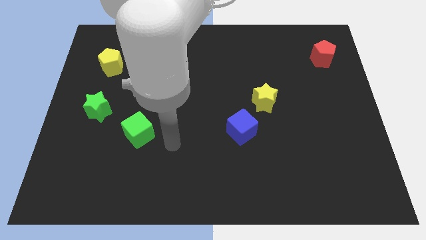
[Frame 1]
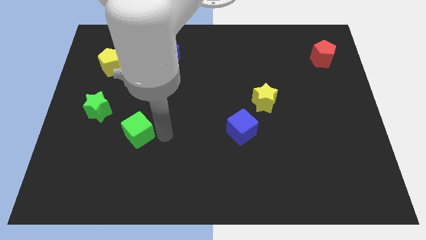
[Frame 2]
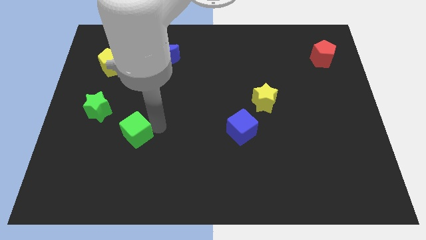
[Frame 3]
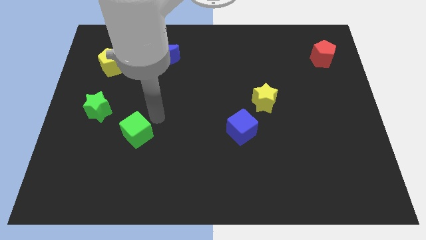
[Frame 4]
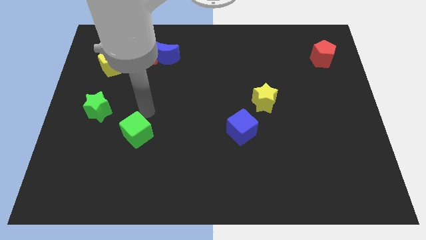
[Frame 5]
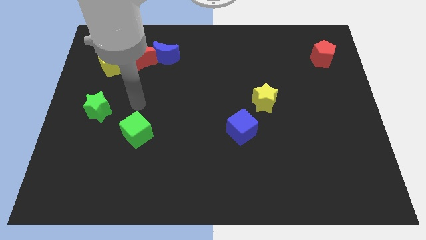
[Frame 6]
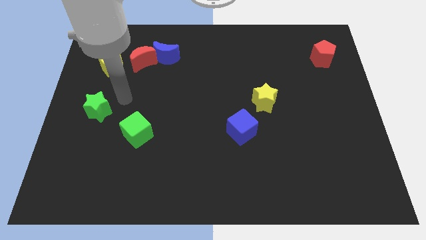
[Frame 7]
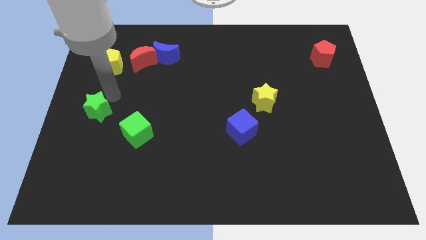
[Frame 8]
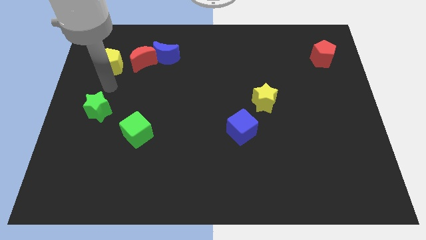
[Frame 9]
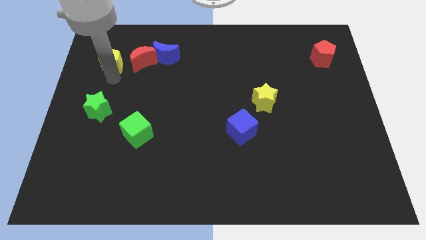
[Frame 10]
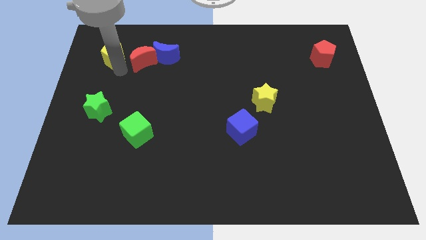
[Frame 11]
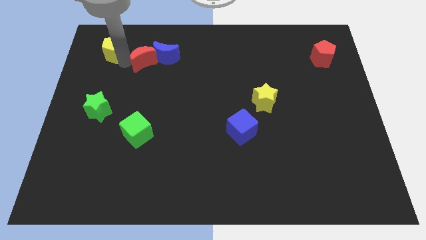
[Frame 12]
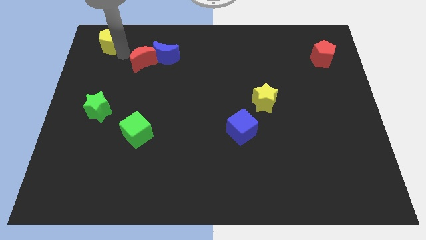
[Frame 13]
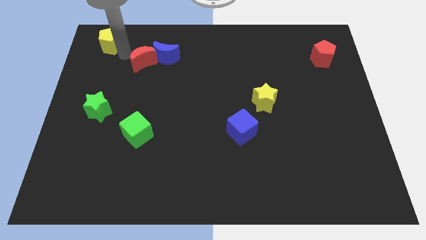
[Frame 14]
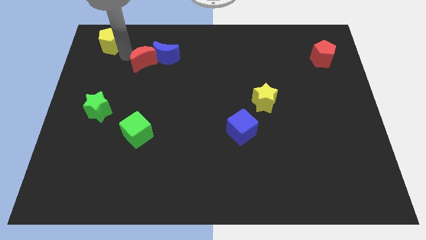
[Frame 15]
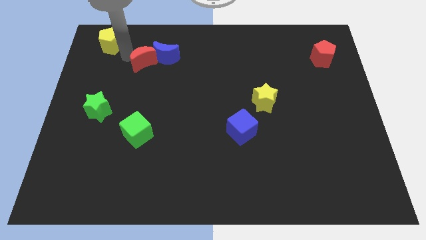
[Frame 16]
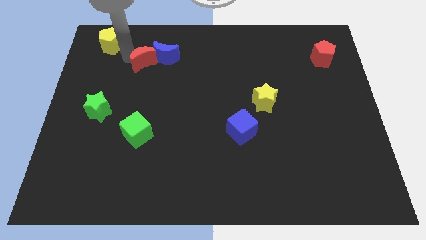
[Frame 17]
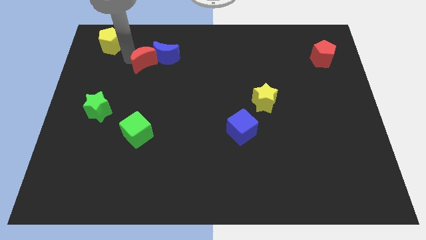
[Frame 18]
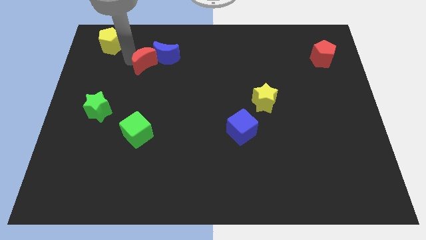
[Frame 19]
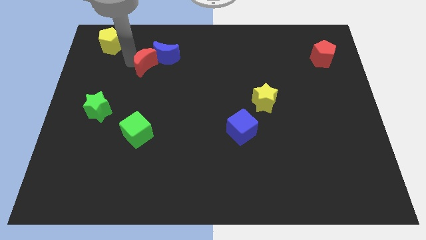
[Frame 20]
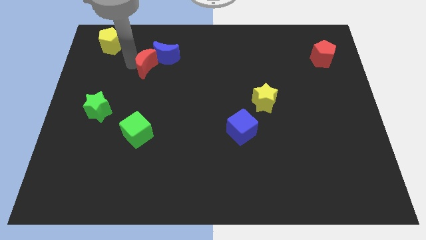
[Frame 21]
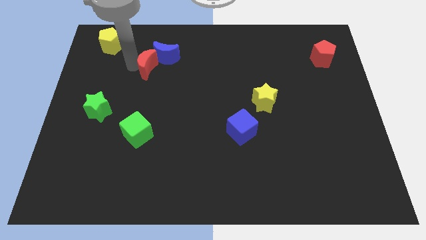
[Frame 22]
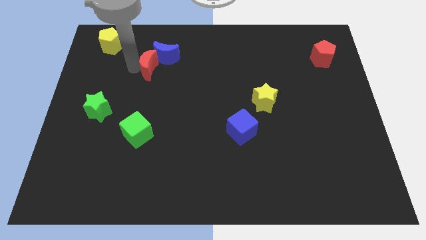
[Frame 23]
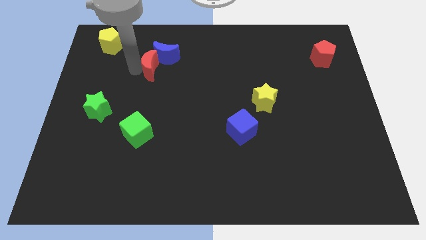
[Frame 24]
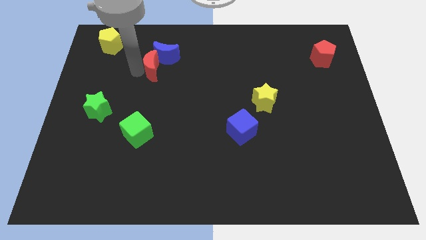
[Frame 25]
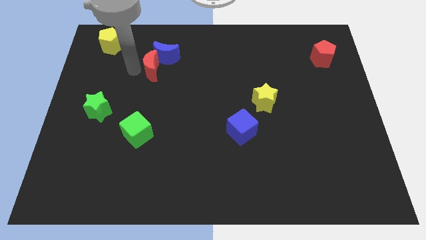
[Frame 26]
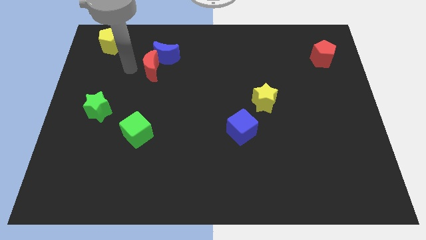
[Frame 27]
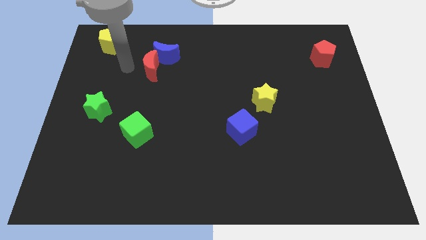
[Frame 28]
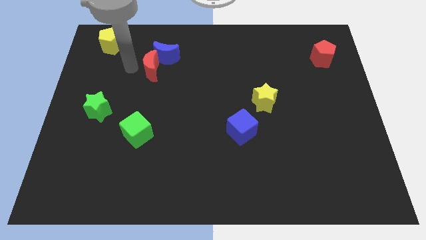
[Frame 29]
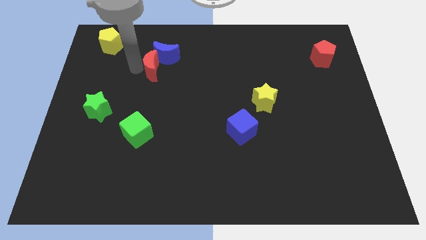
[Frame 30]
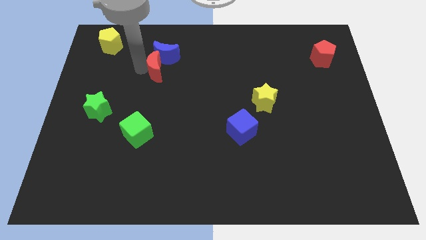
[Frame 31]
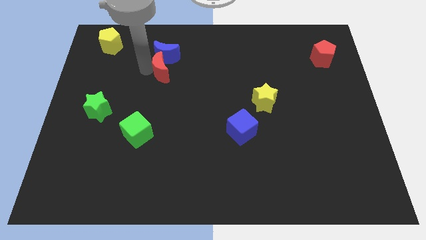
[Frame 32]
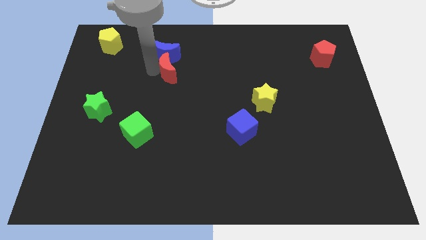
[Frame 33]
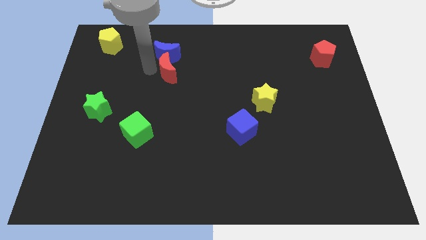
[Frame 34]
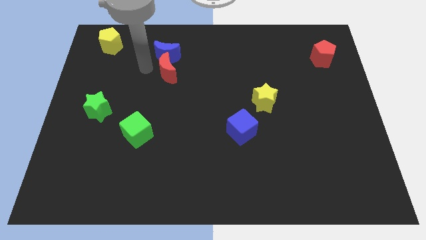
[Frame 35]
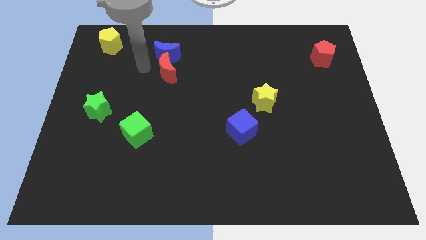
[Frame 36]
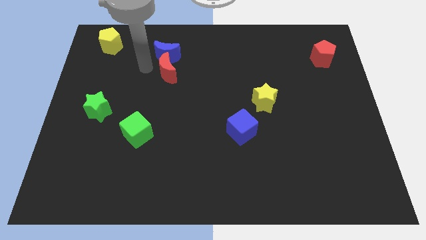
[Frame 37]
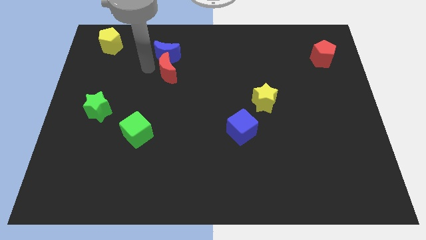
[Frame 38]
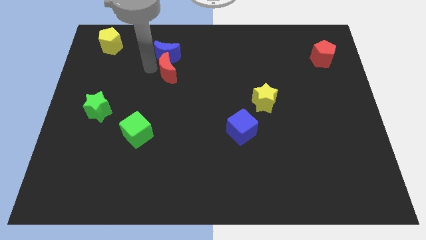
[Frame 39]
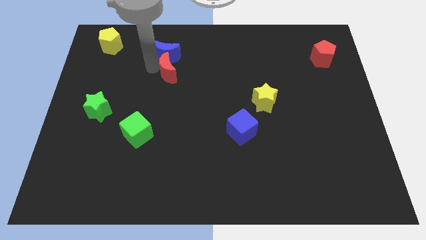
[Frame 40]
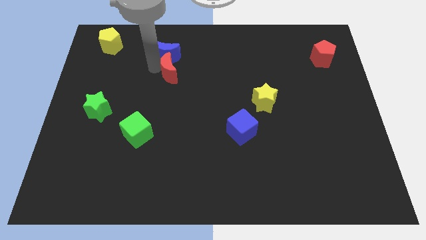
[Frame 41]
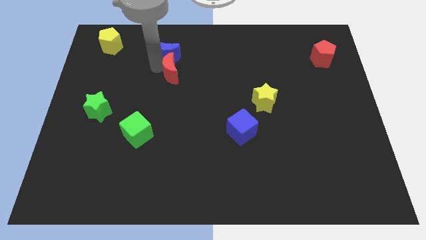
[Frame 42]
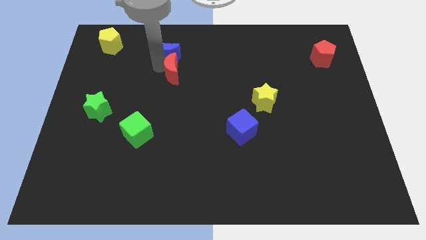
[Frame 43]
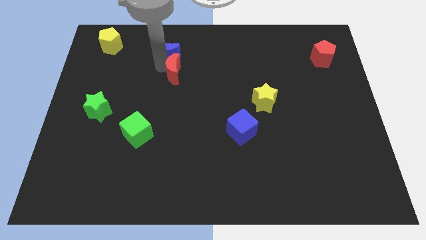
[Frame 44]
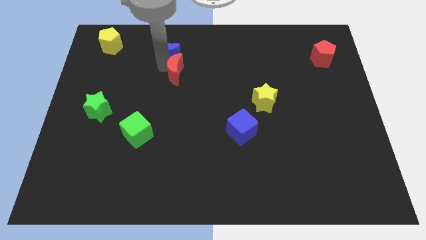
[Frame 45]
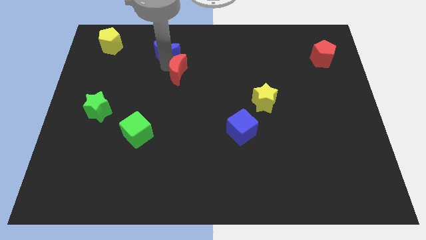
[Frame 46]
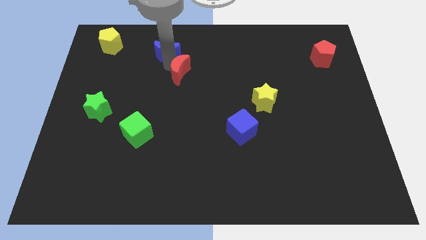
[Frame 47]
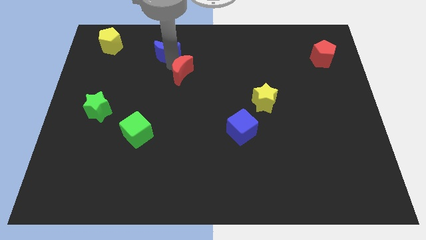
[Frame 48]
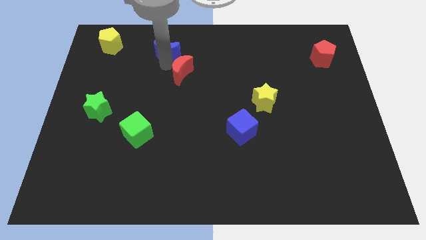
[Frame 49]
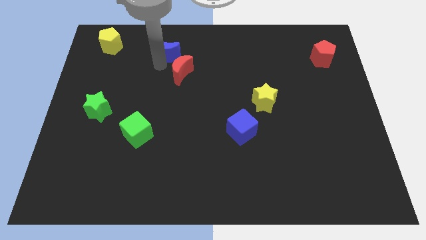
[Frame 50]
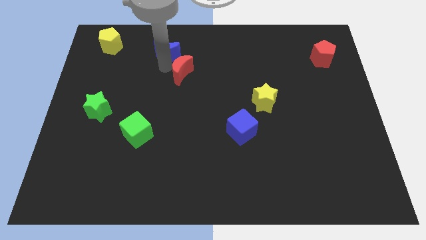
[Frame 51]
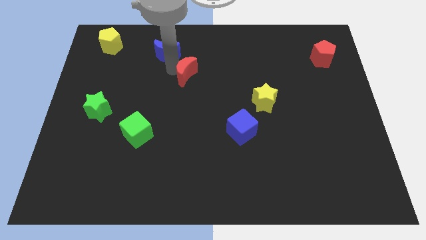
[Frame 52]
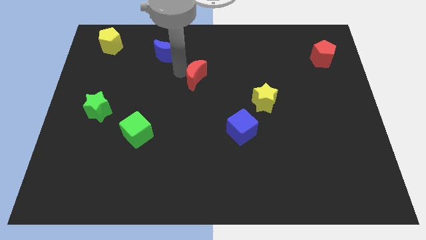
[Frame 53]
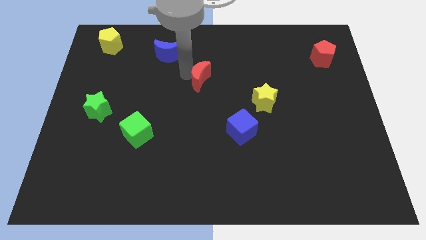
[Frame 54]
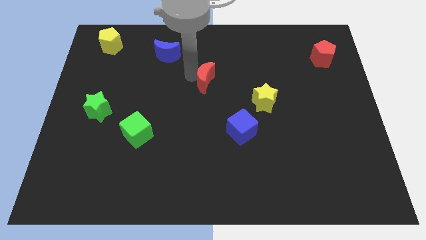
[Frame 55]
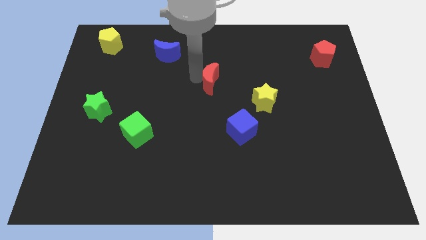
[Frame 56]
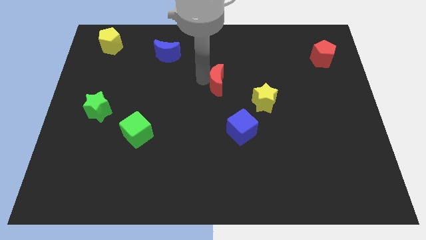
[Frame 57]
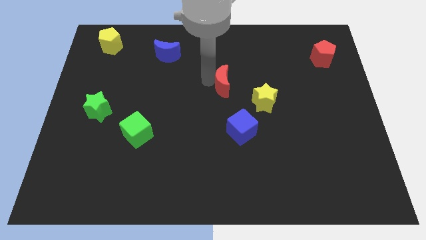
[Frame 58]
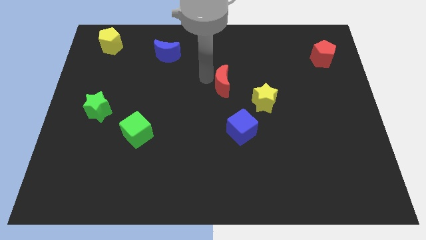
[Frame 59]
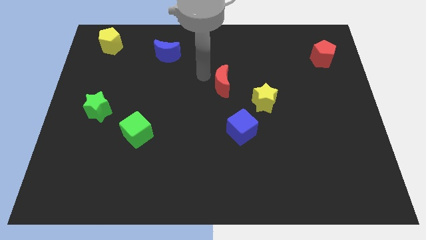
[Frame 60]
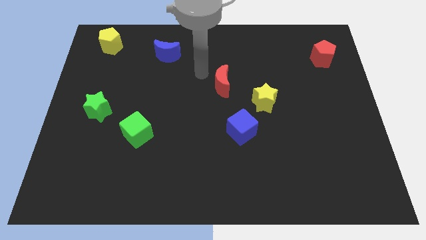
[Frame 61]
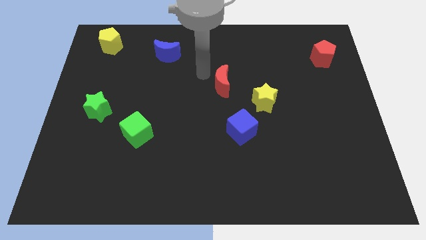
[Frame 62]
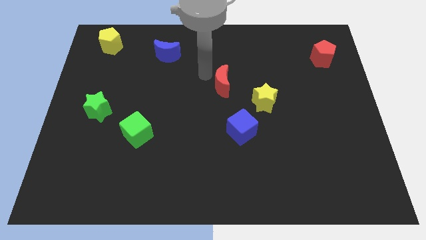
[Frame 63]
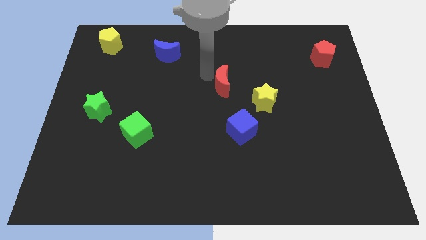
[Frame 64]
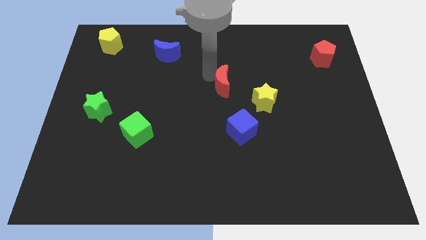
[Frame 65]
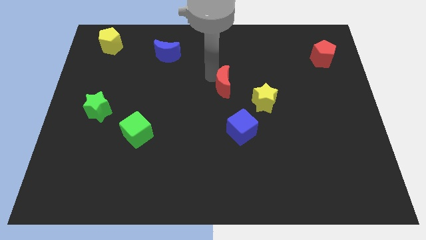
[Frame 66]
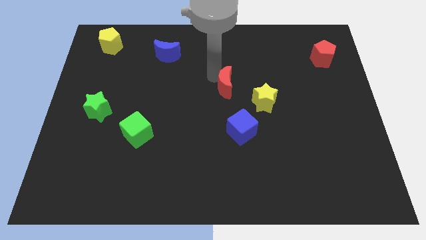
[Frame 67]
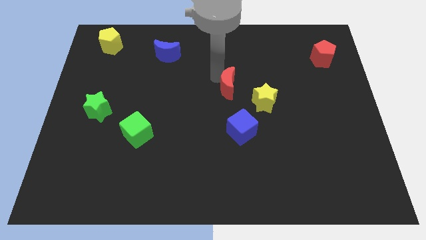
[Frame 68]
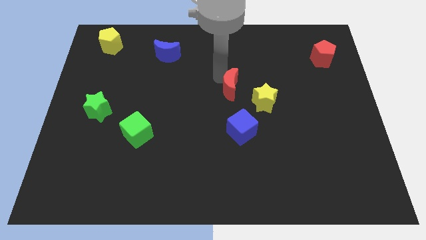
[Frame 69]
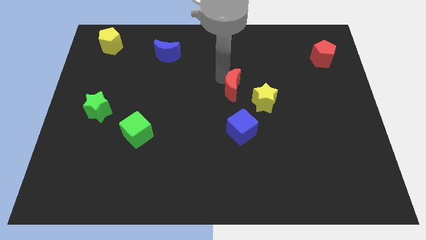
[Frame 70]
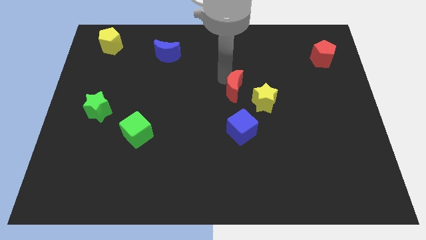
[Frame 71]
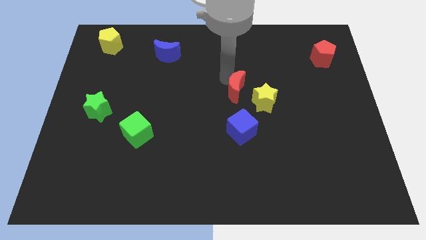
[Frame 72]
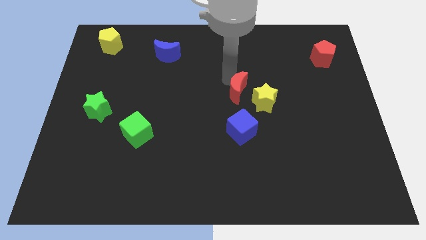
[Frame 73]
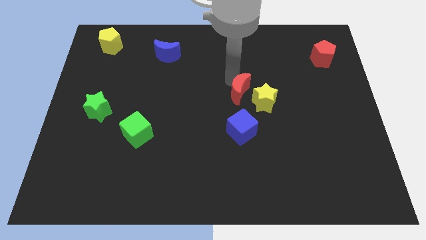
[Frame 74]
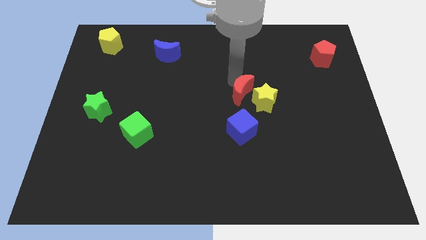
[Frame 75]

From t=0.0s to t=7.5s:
slide the red moon to the yellow star
